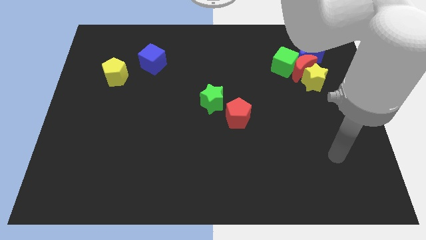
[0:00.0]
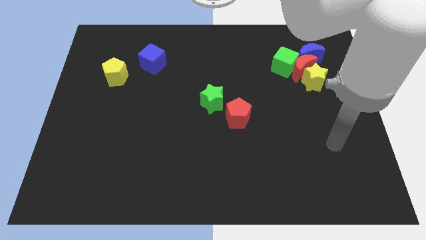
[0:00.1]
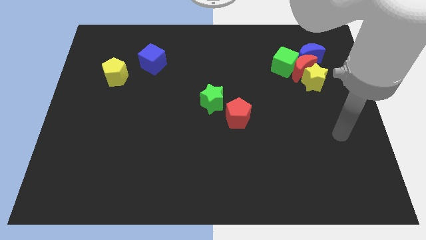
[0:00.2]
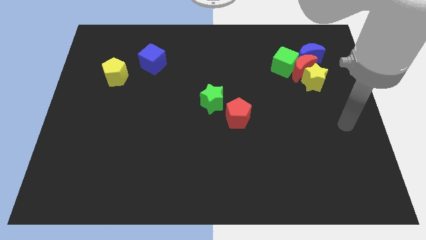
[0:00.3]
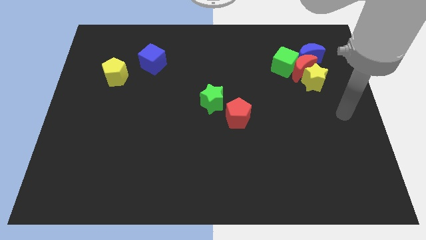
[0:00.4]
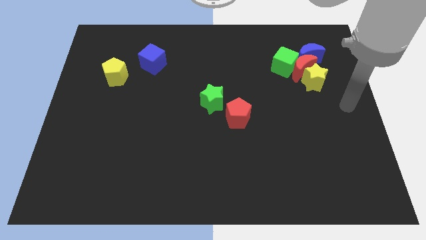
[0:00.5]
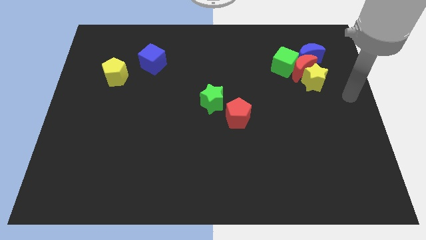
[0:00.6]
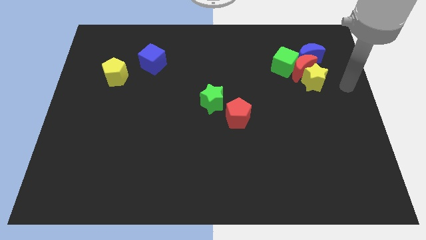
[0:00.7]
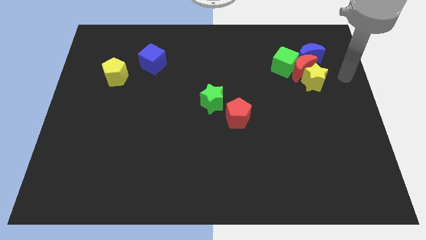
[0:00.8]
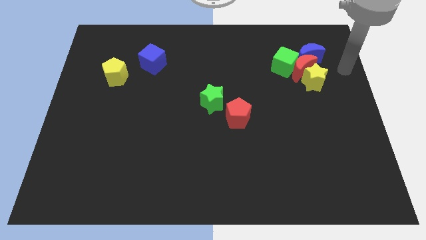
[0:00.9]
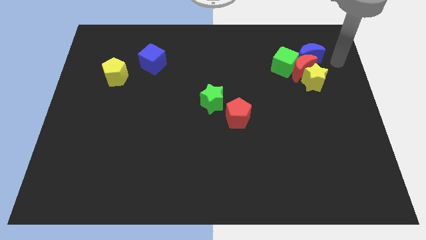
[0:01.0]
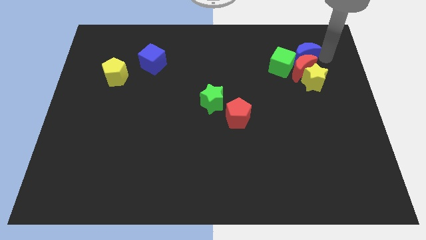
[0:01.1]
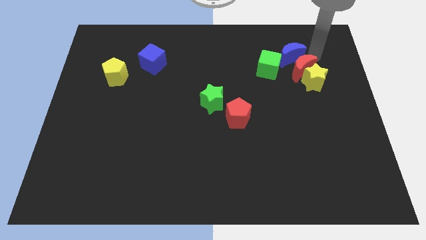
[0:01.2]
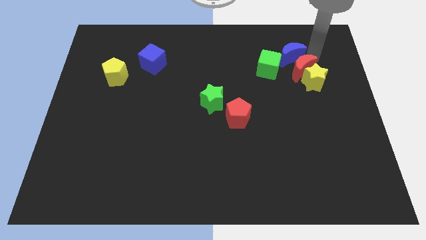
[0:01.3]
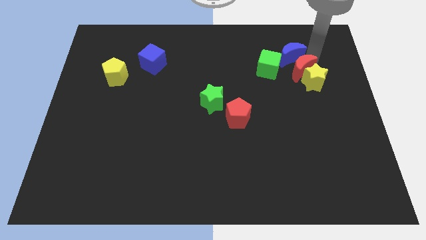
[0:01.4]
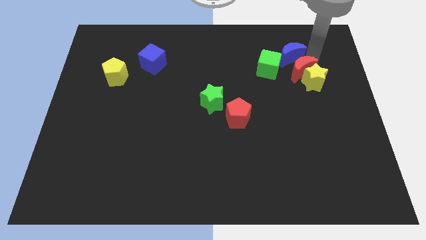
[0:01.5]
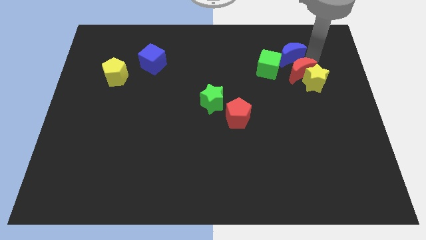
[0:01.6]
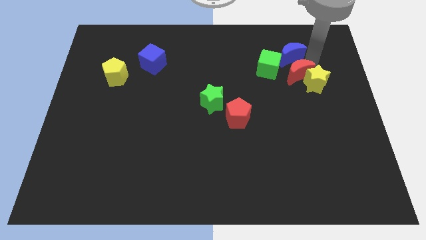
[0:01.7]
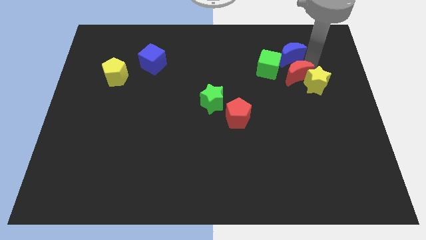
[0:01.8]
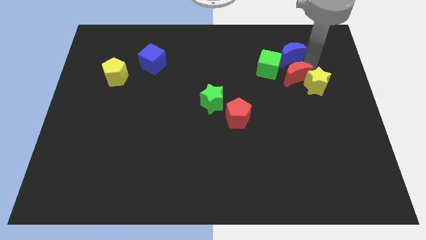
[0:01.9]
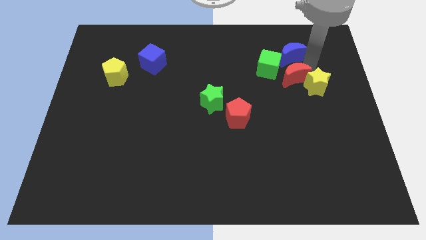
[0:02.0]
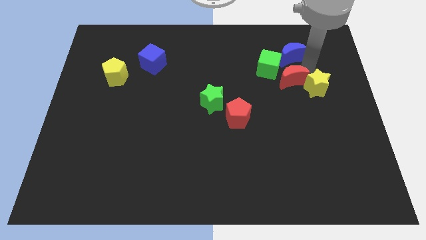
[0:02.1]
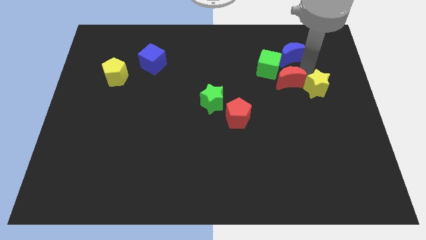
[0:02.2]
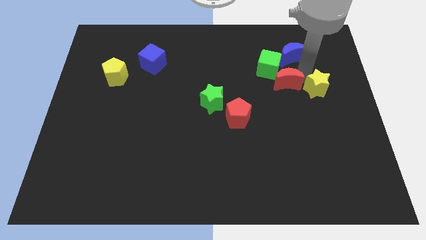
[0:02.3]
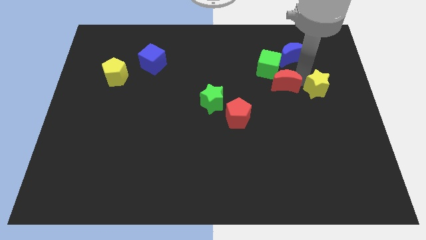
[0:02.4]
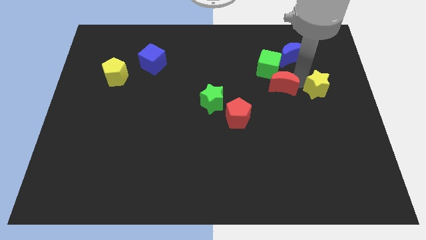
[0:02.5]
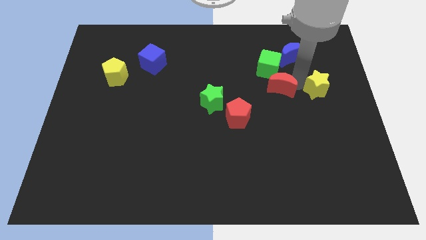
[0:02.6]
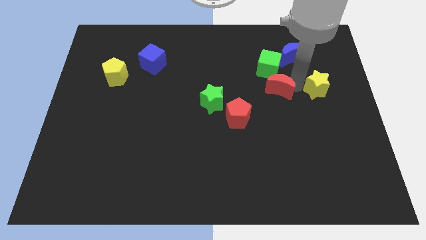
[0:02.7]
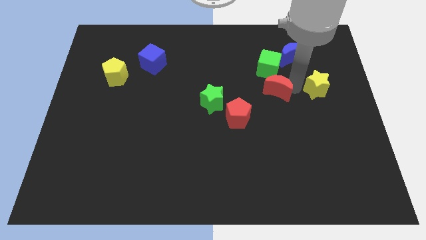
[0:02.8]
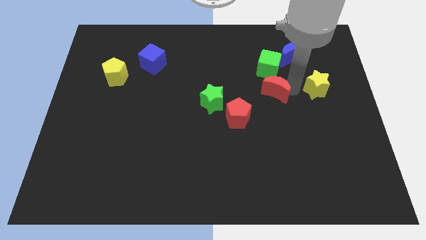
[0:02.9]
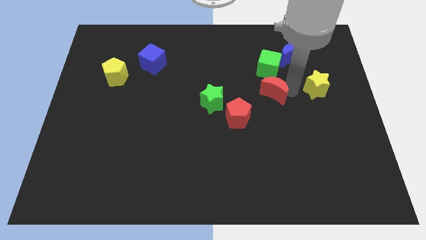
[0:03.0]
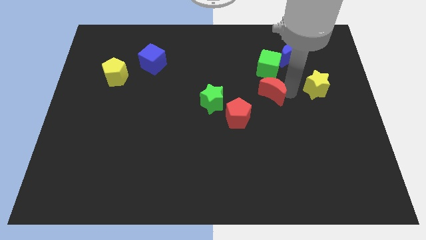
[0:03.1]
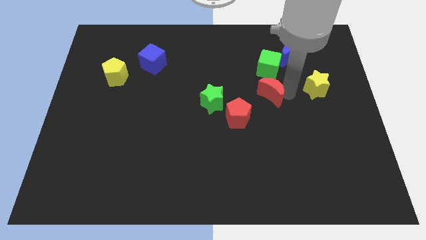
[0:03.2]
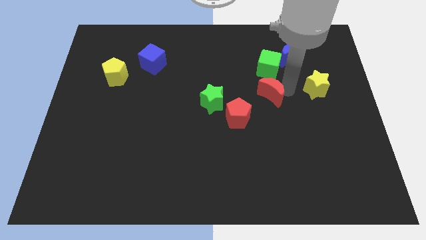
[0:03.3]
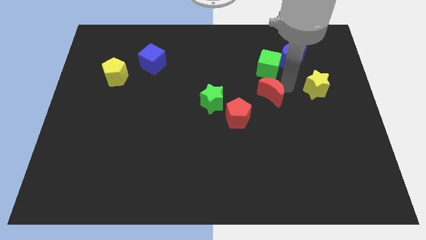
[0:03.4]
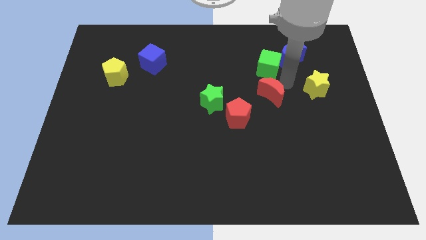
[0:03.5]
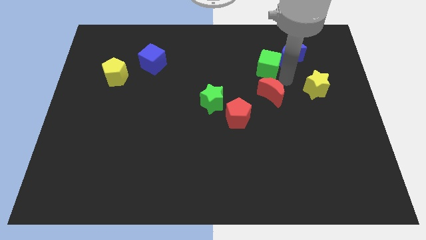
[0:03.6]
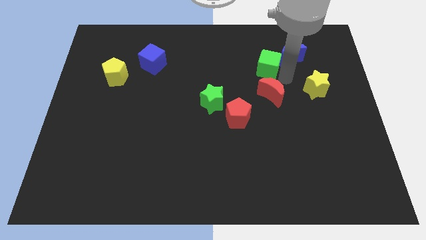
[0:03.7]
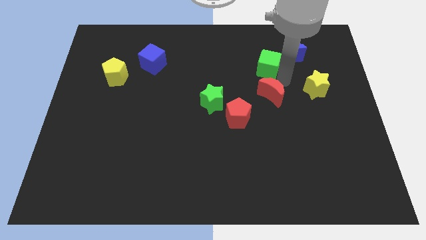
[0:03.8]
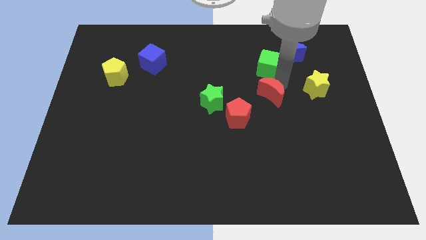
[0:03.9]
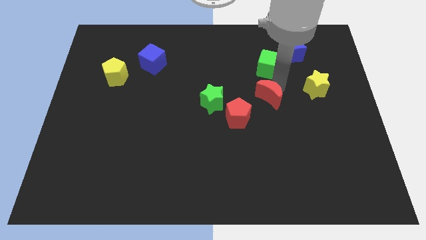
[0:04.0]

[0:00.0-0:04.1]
pull the red moon apart from the green cube, yellow star, and blue moon

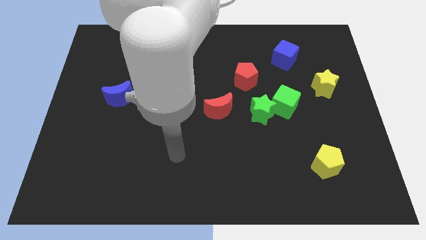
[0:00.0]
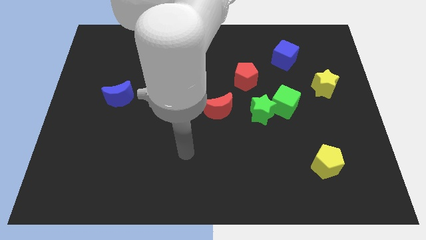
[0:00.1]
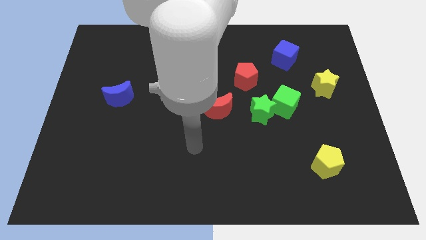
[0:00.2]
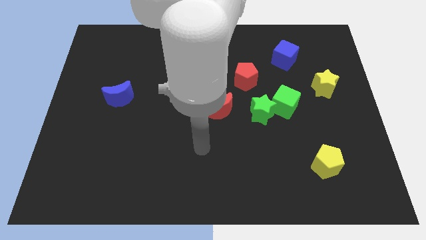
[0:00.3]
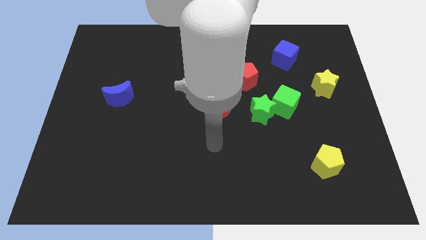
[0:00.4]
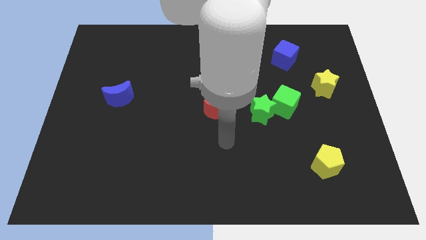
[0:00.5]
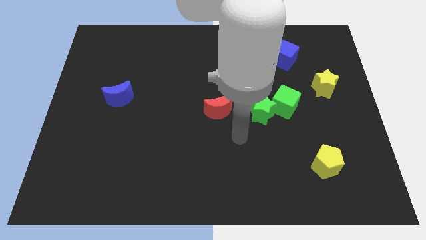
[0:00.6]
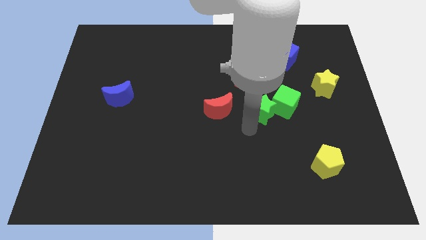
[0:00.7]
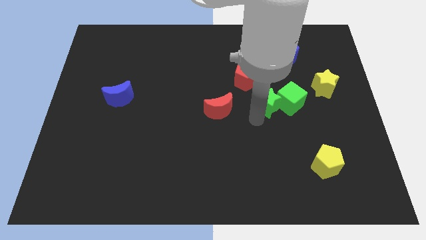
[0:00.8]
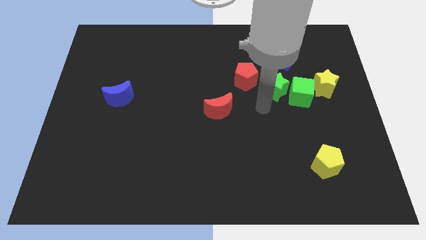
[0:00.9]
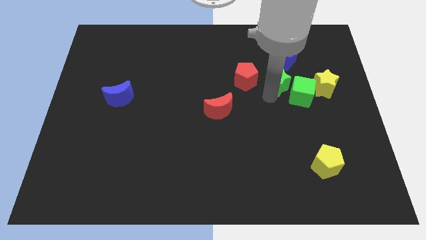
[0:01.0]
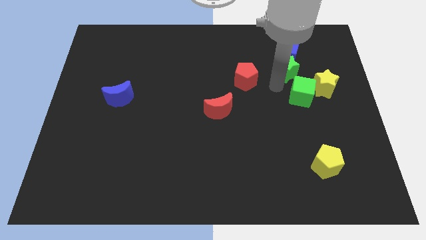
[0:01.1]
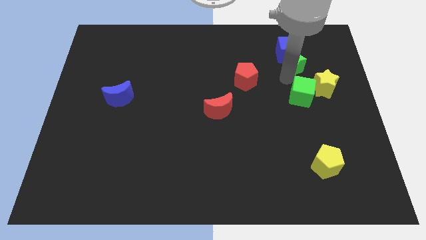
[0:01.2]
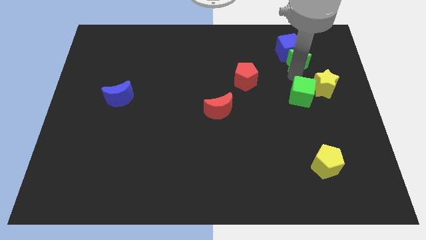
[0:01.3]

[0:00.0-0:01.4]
pull the green cube apart from the green star

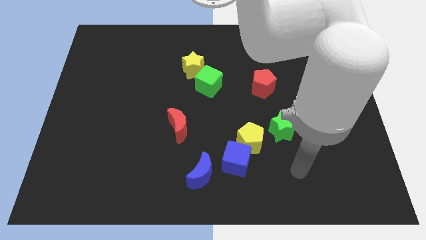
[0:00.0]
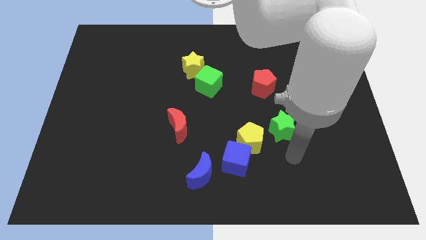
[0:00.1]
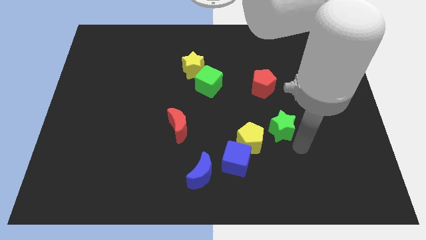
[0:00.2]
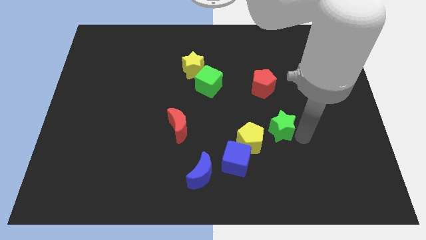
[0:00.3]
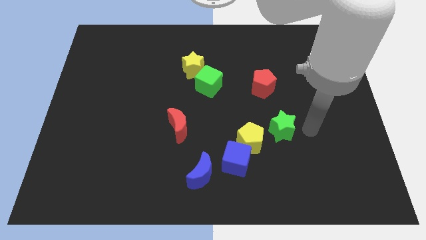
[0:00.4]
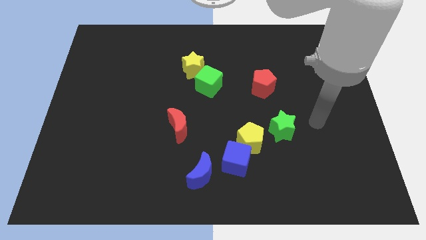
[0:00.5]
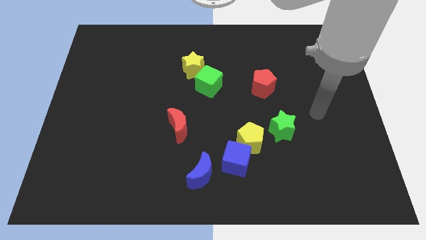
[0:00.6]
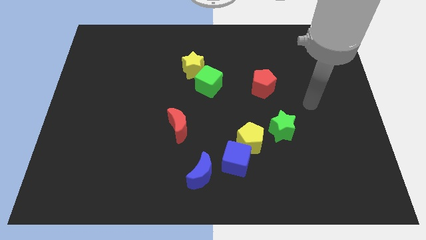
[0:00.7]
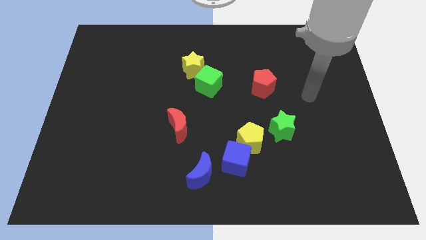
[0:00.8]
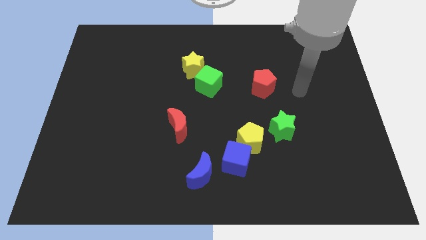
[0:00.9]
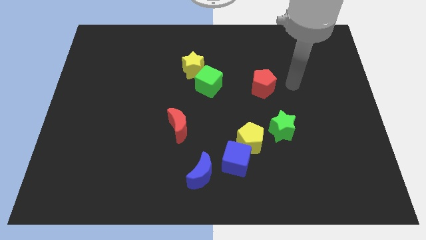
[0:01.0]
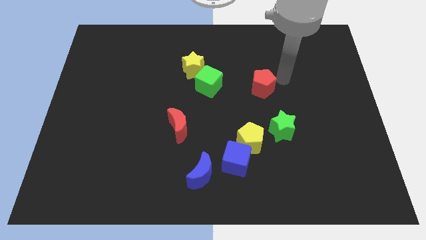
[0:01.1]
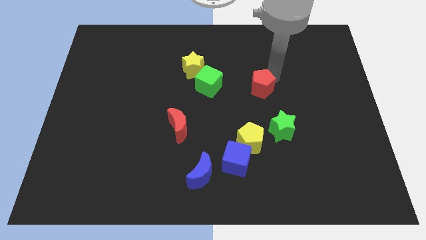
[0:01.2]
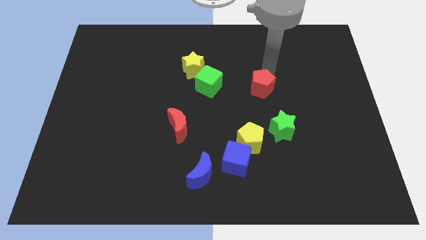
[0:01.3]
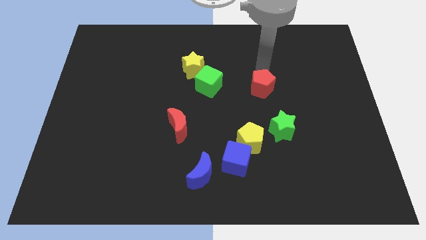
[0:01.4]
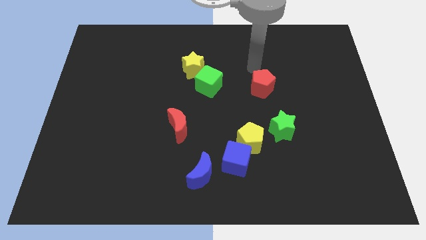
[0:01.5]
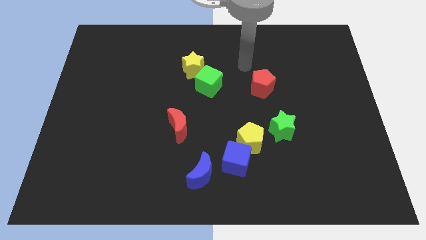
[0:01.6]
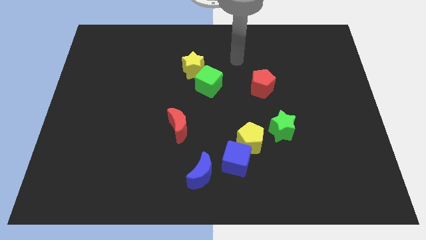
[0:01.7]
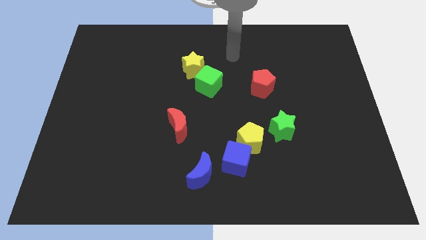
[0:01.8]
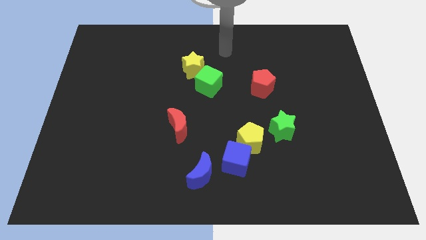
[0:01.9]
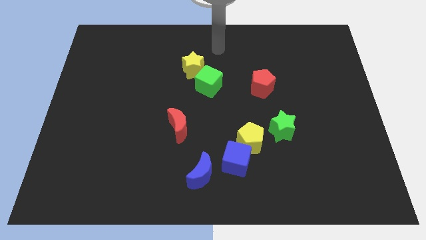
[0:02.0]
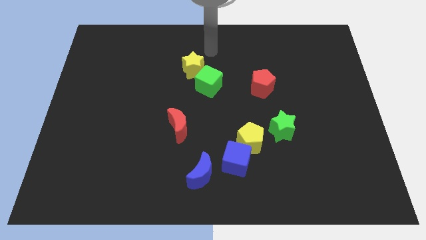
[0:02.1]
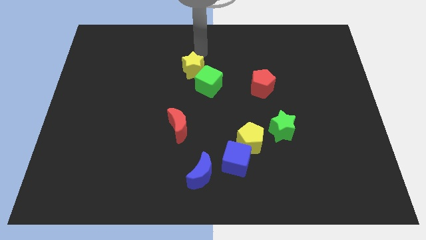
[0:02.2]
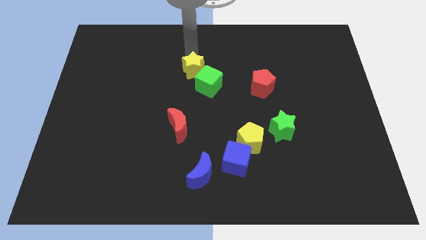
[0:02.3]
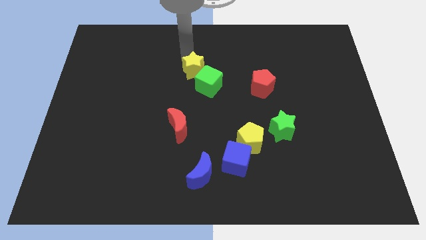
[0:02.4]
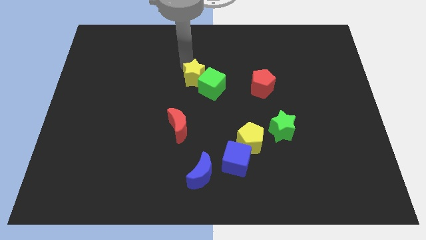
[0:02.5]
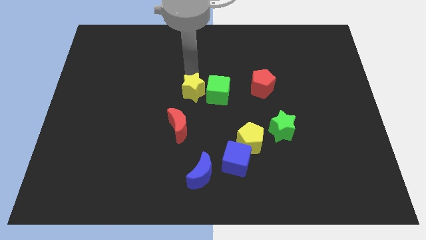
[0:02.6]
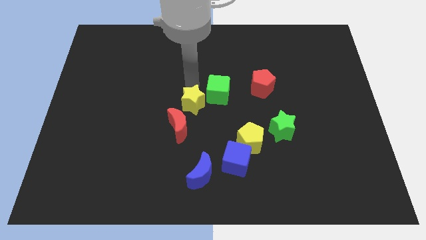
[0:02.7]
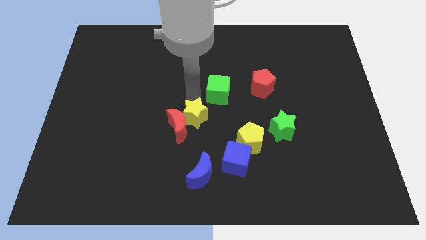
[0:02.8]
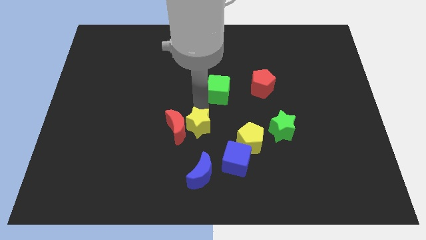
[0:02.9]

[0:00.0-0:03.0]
pull the green cube apart from the yellow star

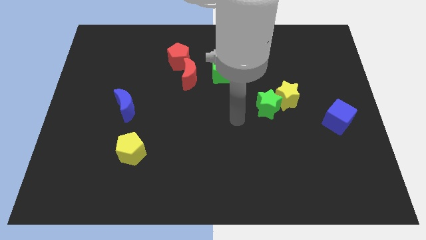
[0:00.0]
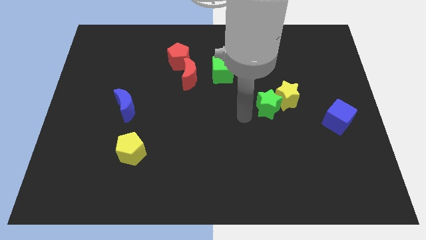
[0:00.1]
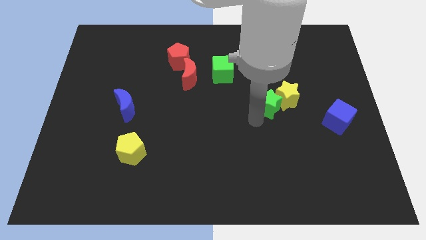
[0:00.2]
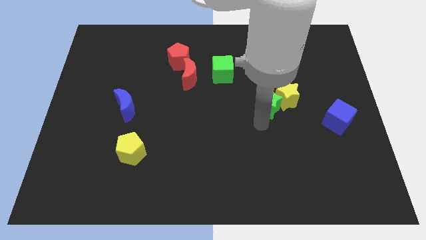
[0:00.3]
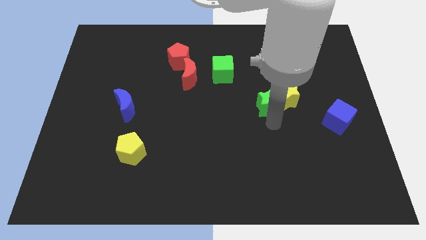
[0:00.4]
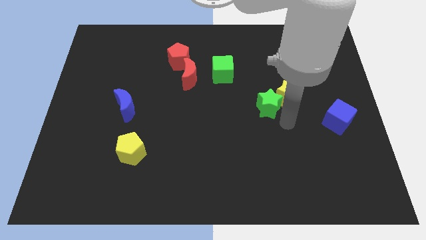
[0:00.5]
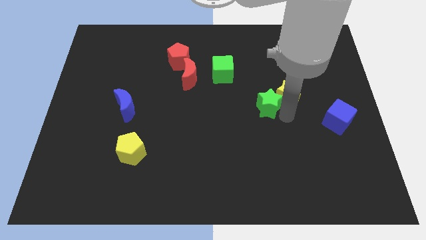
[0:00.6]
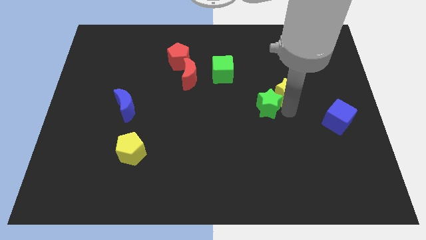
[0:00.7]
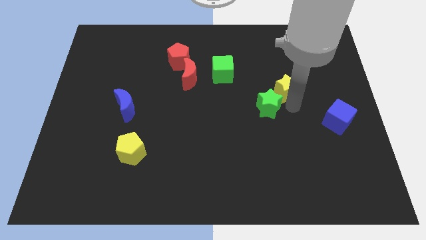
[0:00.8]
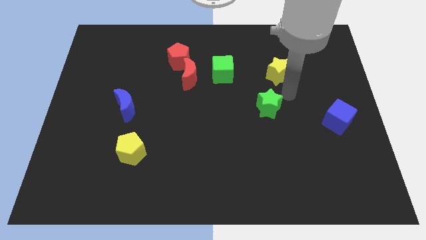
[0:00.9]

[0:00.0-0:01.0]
move the green star away from the yellow star
